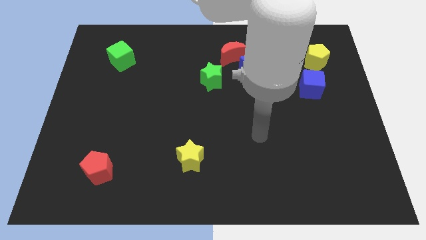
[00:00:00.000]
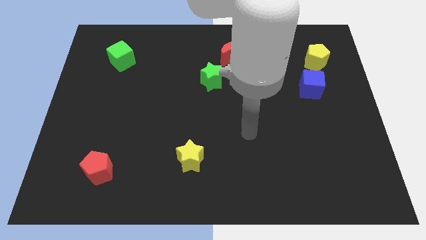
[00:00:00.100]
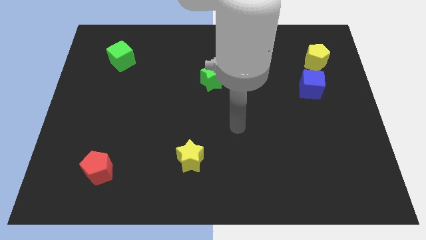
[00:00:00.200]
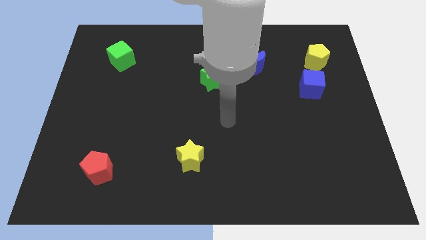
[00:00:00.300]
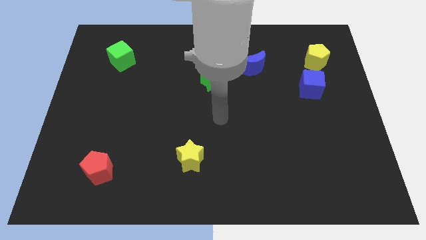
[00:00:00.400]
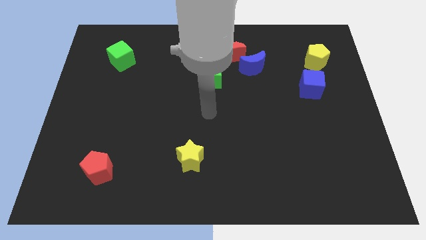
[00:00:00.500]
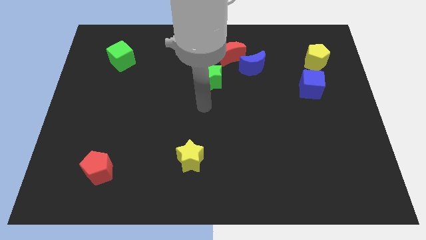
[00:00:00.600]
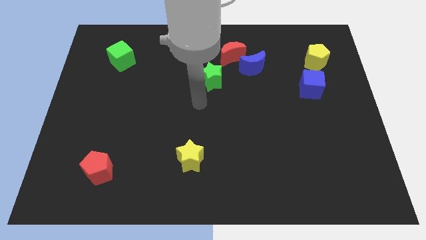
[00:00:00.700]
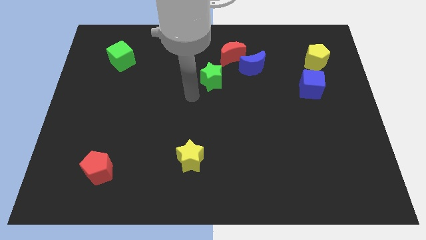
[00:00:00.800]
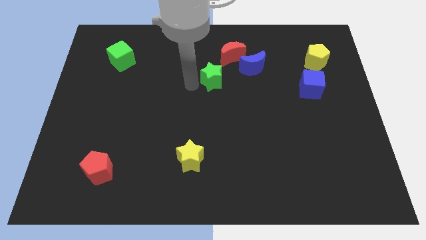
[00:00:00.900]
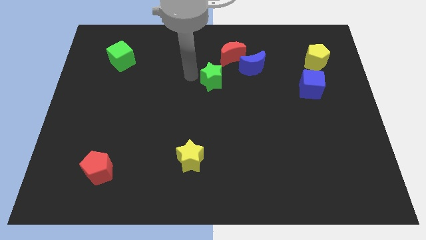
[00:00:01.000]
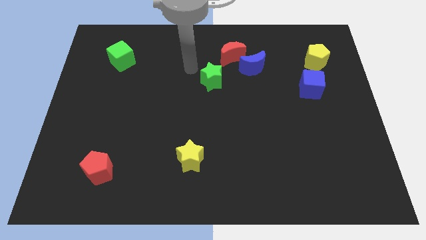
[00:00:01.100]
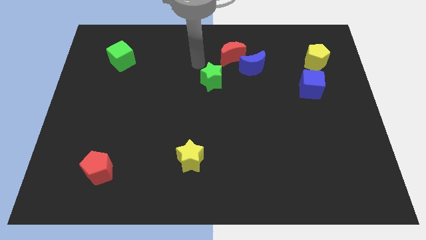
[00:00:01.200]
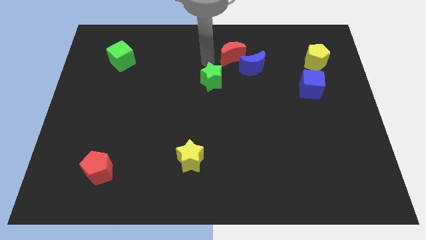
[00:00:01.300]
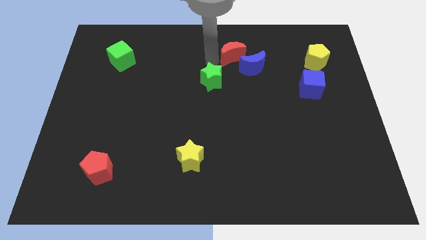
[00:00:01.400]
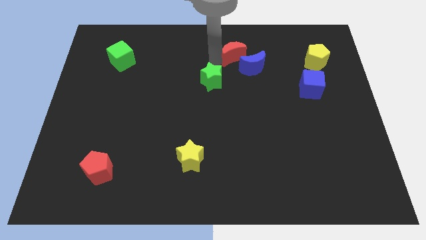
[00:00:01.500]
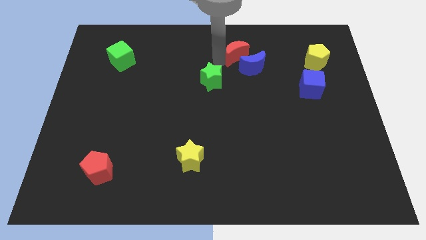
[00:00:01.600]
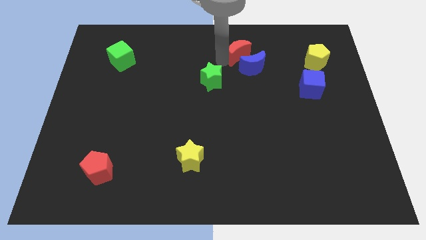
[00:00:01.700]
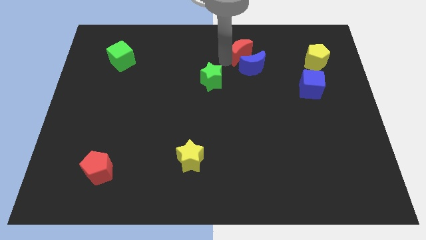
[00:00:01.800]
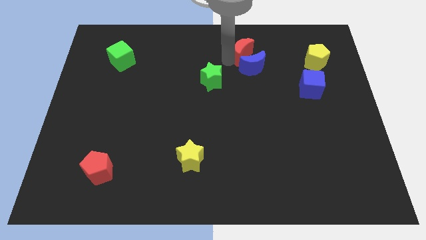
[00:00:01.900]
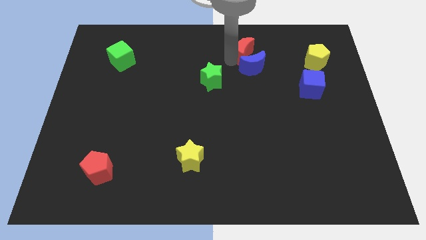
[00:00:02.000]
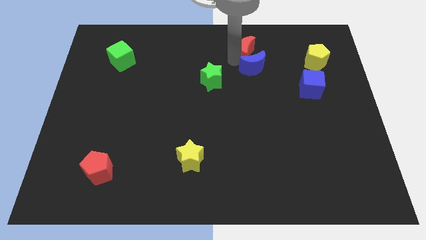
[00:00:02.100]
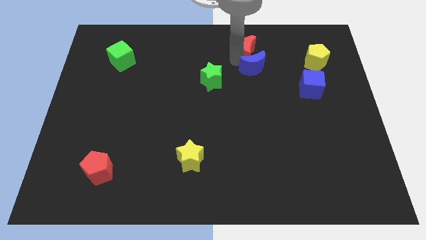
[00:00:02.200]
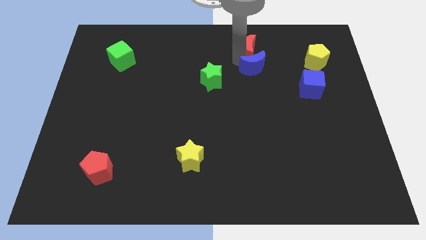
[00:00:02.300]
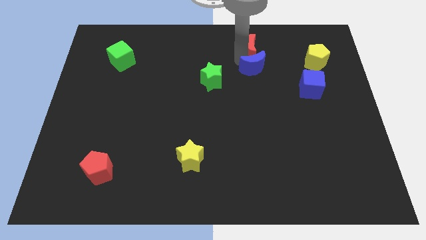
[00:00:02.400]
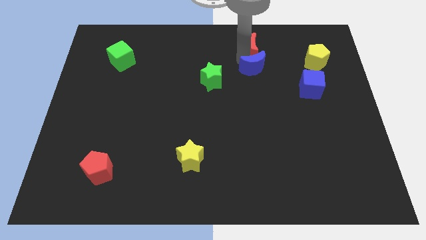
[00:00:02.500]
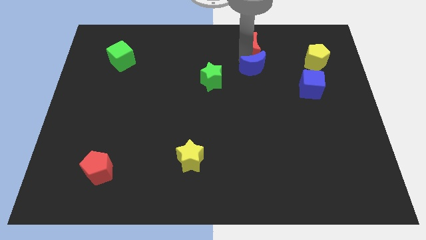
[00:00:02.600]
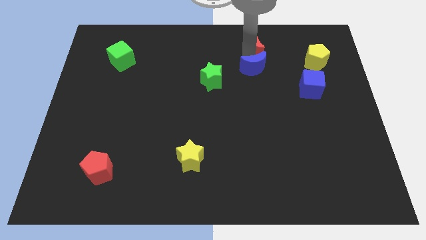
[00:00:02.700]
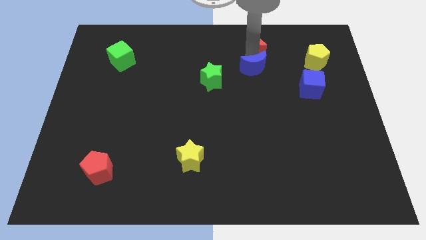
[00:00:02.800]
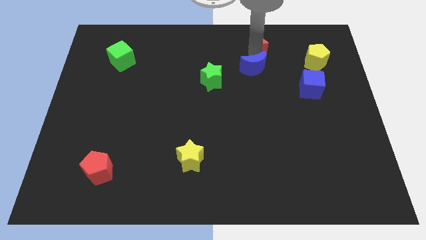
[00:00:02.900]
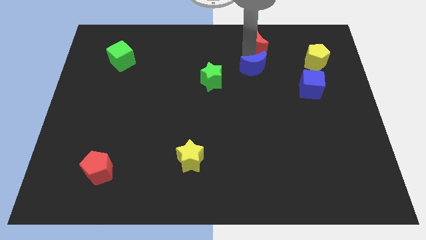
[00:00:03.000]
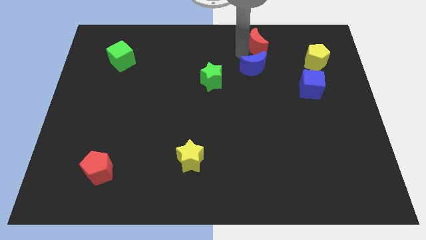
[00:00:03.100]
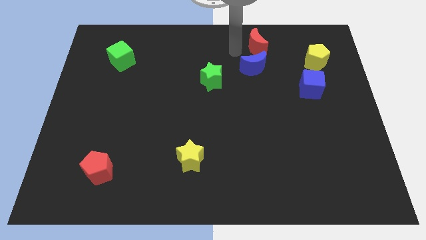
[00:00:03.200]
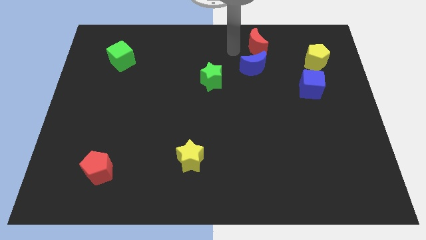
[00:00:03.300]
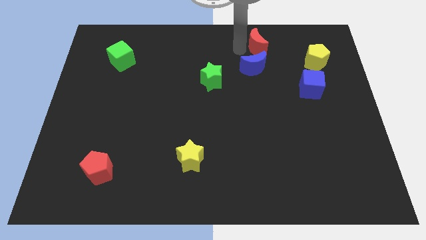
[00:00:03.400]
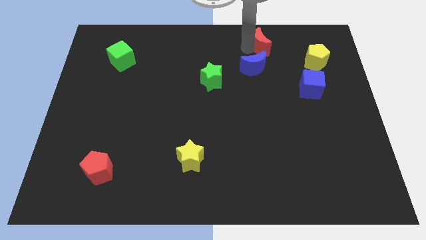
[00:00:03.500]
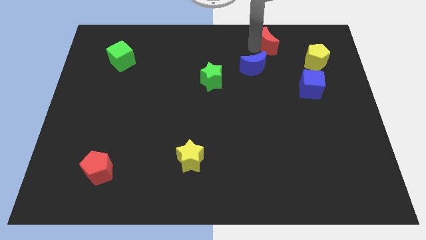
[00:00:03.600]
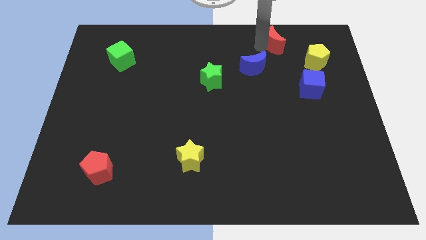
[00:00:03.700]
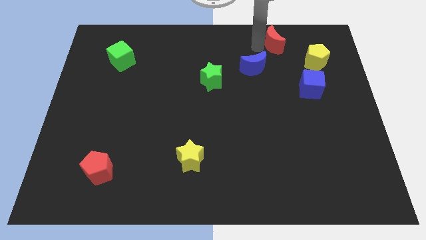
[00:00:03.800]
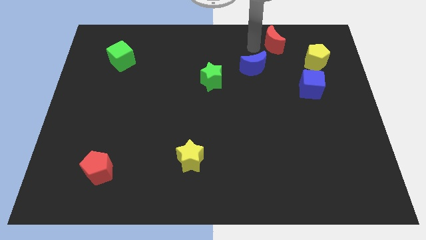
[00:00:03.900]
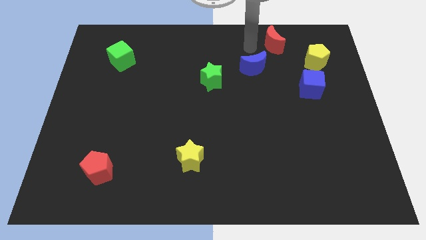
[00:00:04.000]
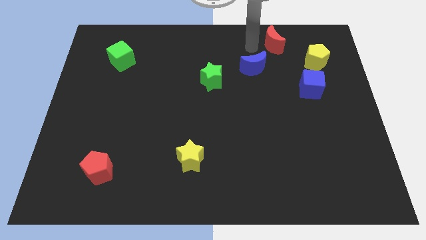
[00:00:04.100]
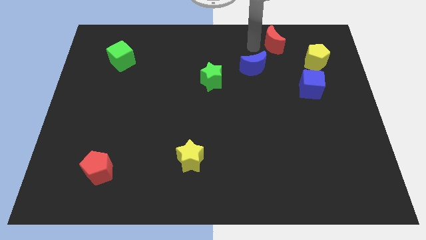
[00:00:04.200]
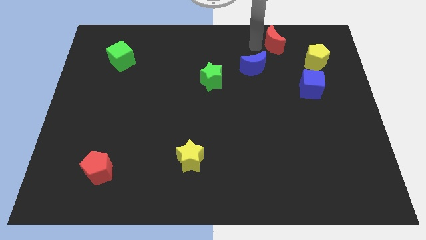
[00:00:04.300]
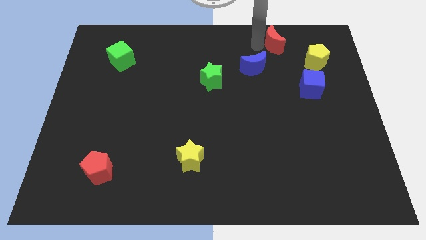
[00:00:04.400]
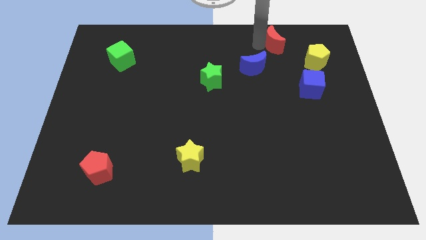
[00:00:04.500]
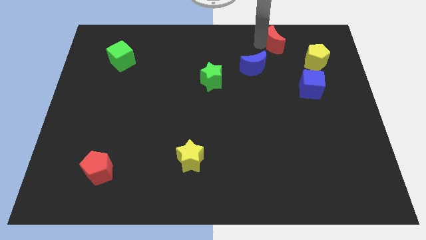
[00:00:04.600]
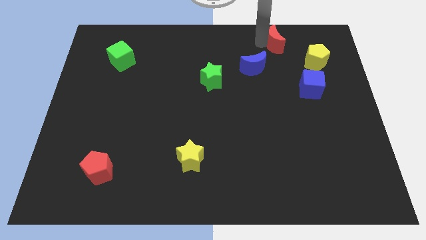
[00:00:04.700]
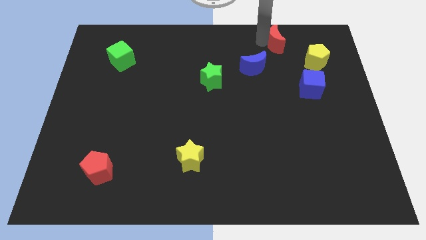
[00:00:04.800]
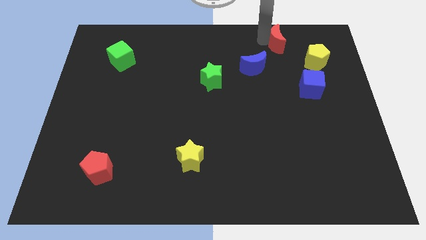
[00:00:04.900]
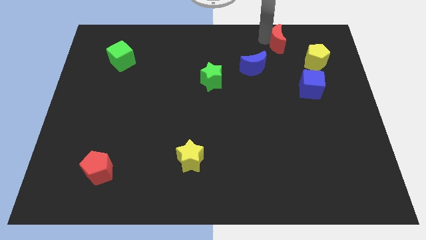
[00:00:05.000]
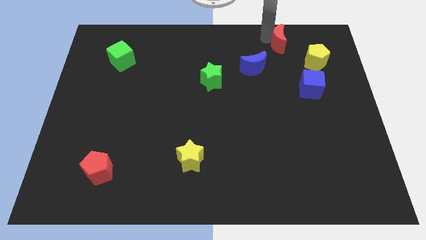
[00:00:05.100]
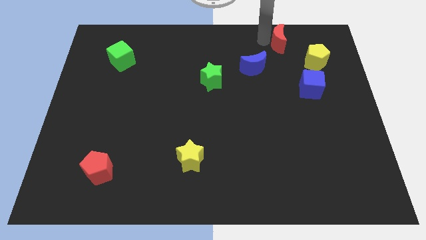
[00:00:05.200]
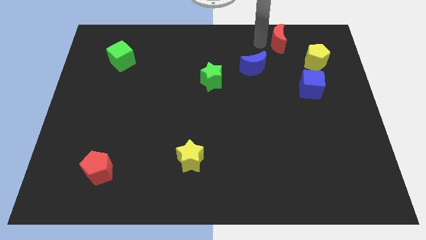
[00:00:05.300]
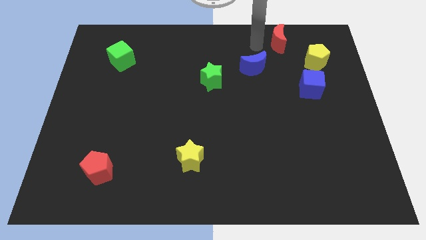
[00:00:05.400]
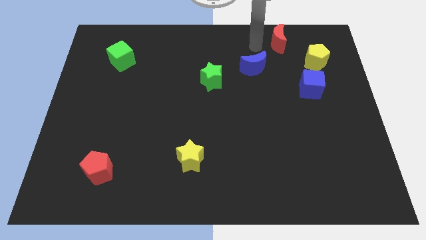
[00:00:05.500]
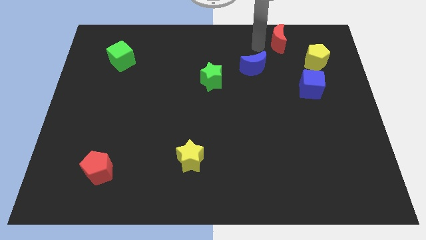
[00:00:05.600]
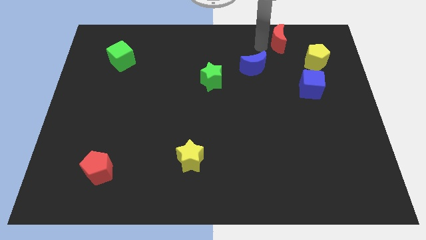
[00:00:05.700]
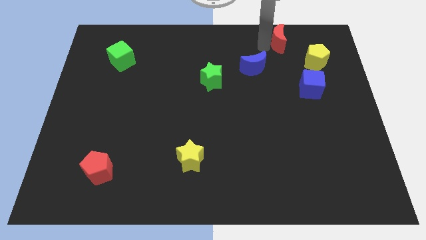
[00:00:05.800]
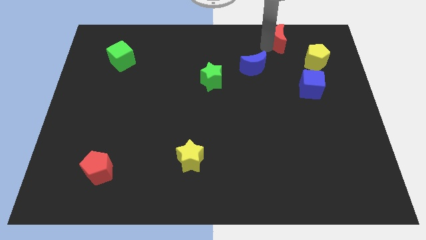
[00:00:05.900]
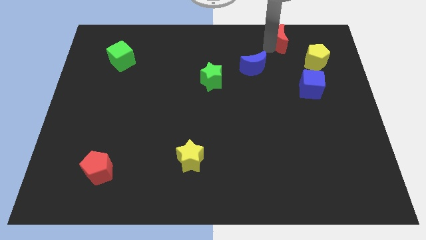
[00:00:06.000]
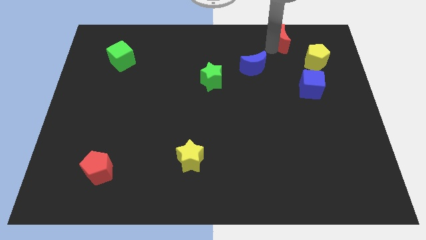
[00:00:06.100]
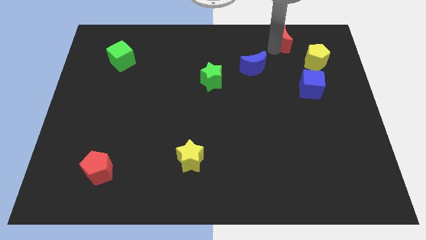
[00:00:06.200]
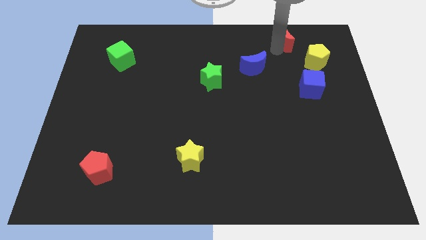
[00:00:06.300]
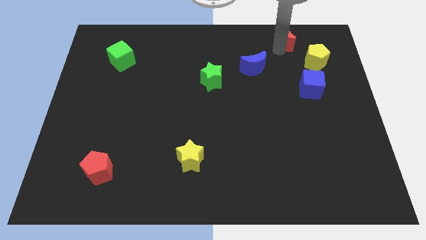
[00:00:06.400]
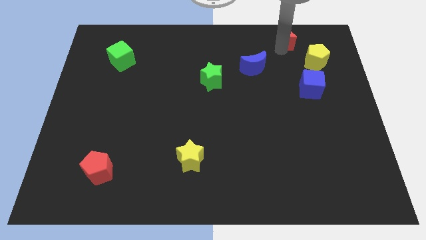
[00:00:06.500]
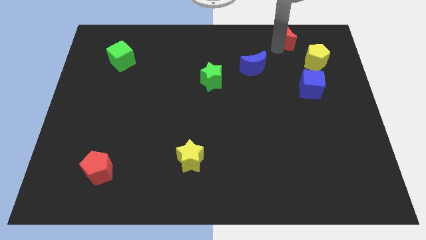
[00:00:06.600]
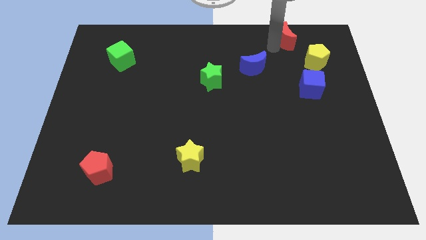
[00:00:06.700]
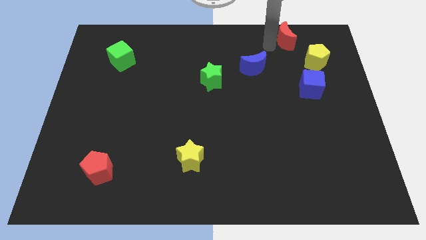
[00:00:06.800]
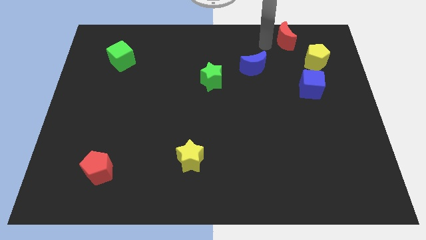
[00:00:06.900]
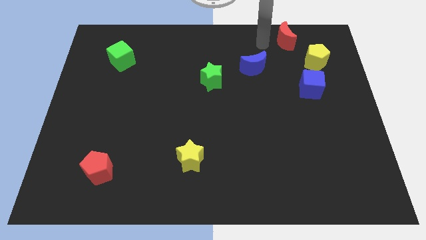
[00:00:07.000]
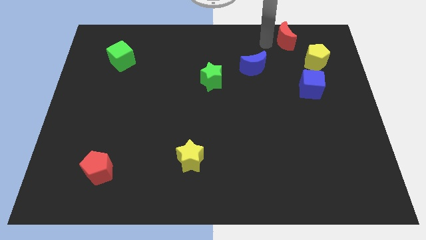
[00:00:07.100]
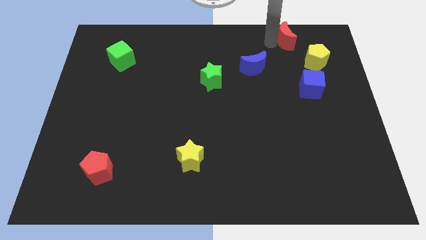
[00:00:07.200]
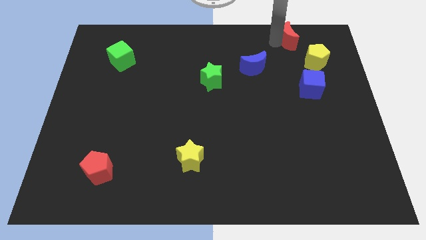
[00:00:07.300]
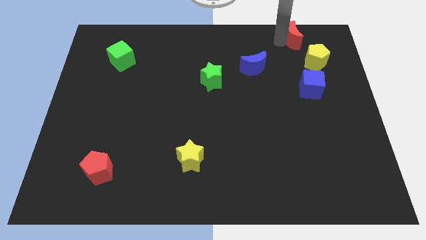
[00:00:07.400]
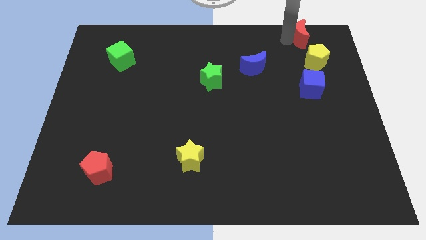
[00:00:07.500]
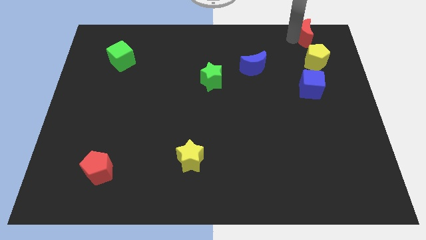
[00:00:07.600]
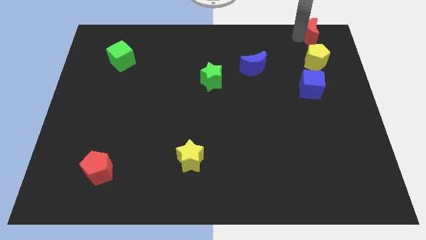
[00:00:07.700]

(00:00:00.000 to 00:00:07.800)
move the red moon to the top right of the board
